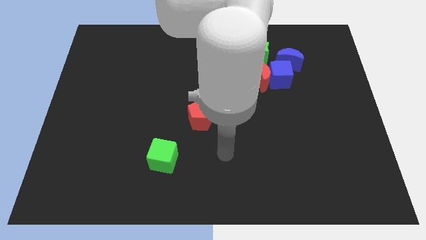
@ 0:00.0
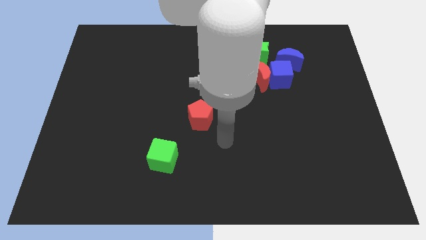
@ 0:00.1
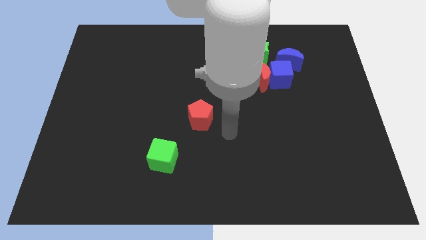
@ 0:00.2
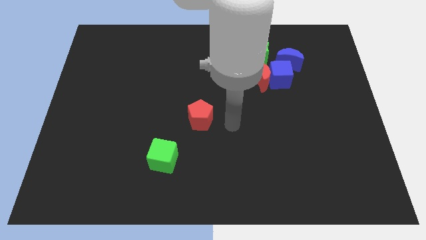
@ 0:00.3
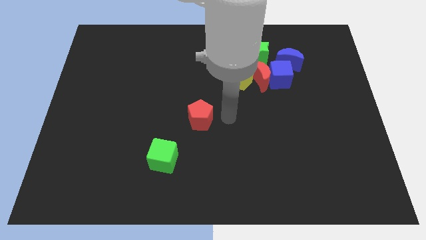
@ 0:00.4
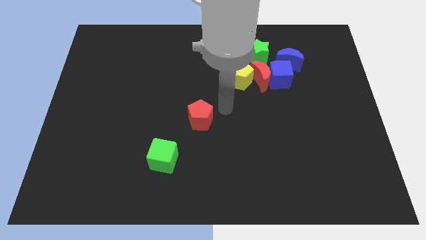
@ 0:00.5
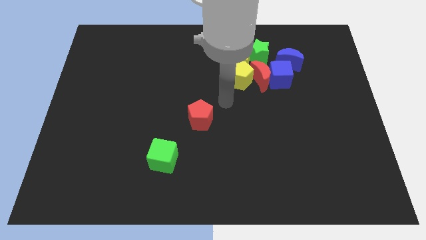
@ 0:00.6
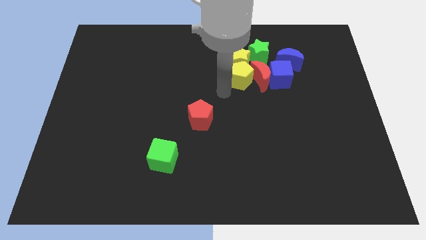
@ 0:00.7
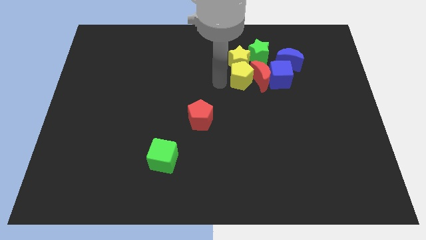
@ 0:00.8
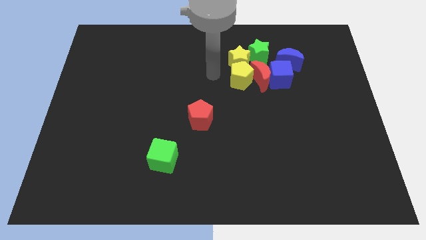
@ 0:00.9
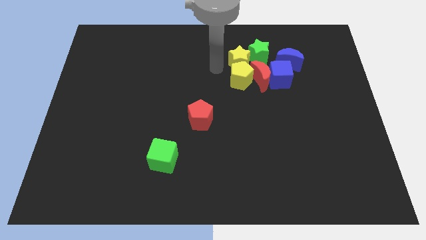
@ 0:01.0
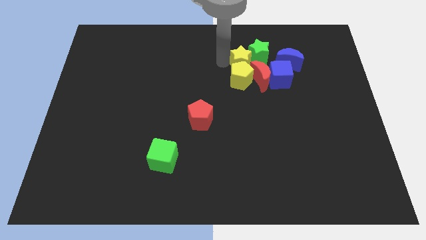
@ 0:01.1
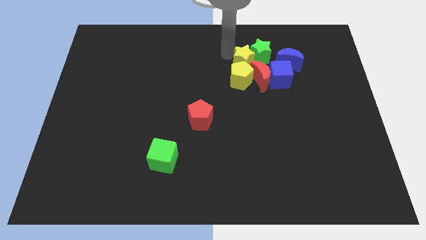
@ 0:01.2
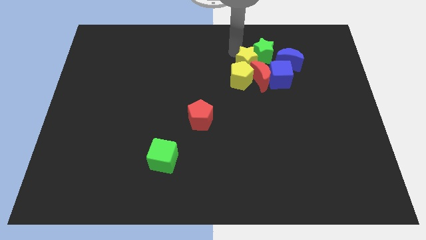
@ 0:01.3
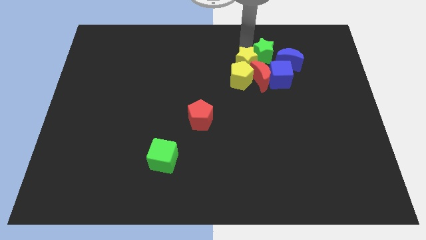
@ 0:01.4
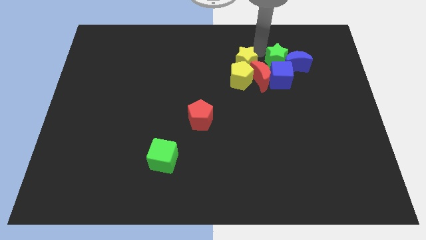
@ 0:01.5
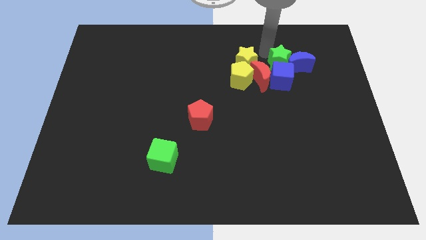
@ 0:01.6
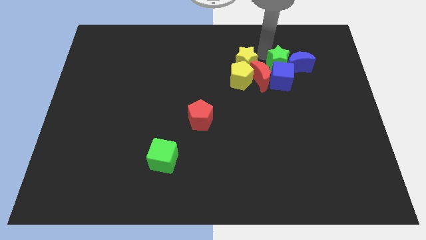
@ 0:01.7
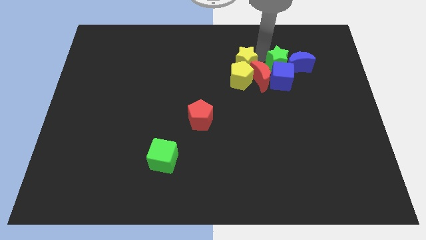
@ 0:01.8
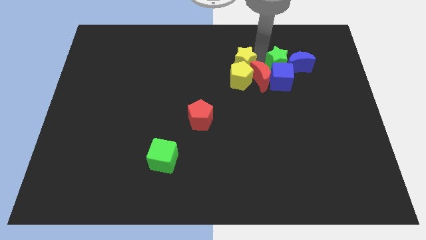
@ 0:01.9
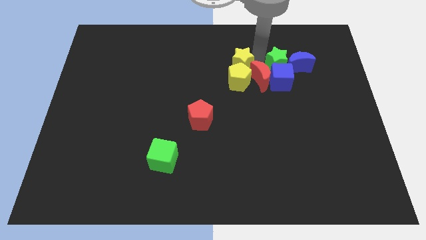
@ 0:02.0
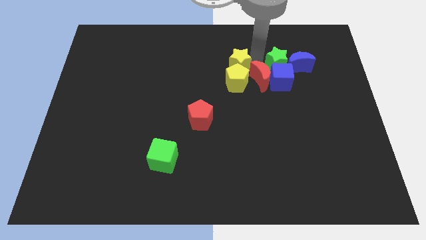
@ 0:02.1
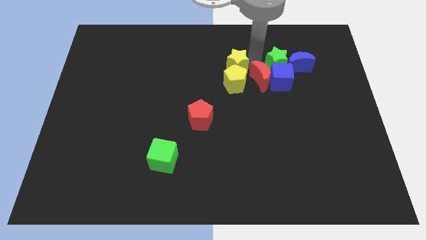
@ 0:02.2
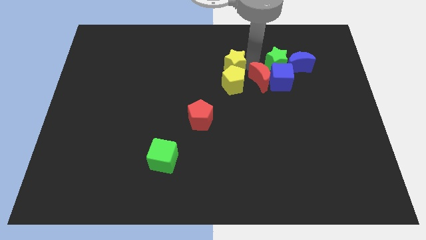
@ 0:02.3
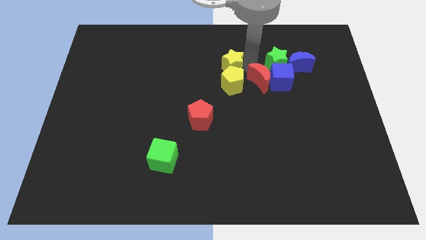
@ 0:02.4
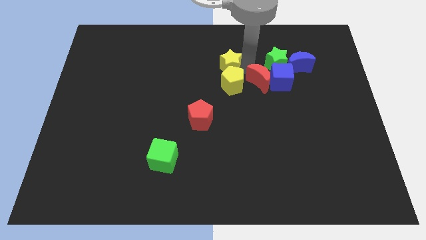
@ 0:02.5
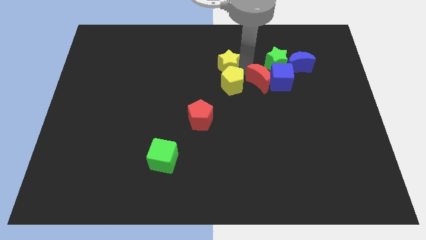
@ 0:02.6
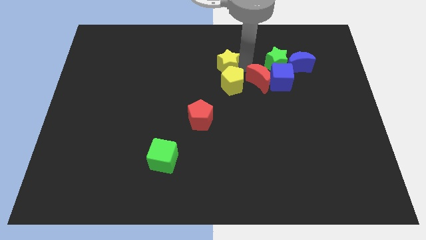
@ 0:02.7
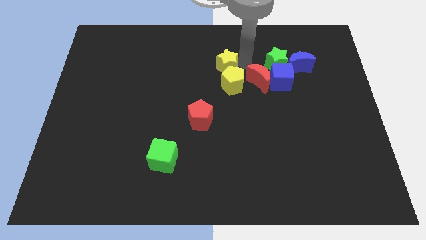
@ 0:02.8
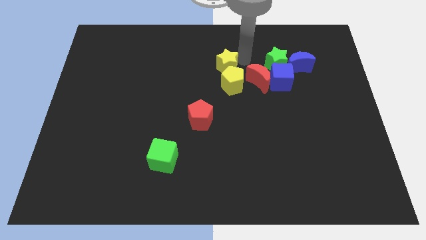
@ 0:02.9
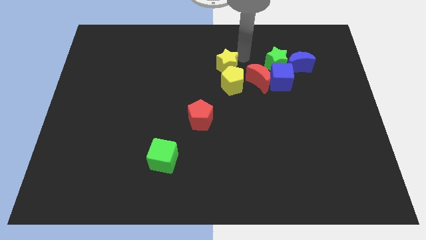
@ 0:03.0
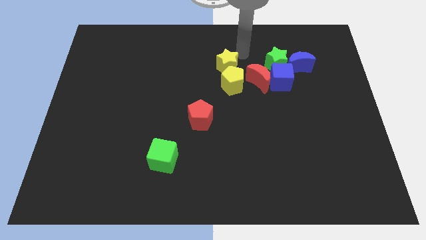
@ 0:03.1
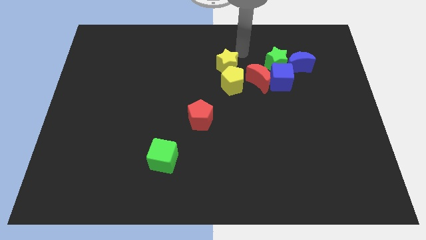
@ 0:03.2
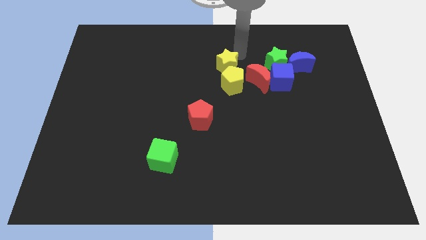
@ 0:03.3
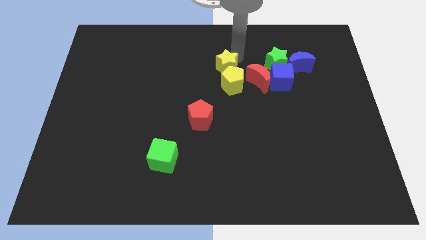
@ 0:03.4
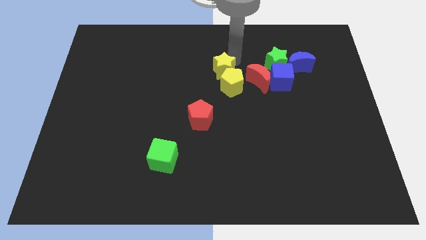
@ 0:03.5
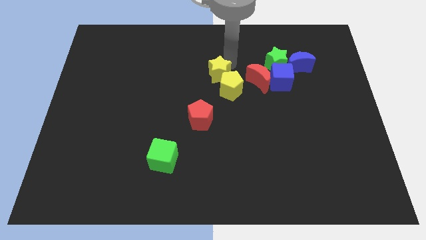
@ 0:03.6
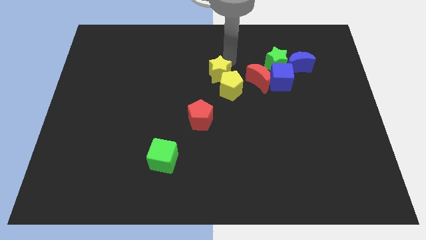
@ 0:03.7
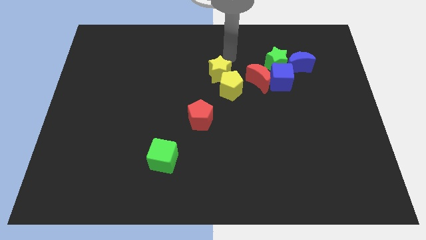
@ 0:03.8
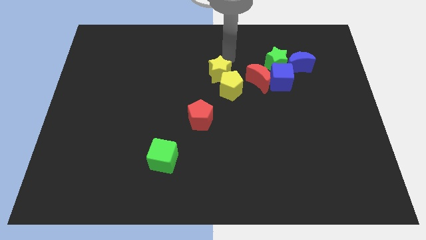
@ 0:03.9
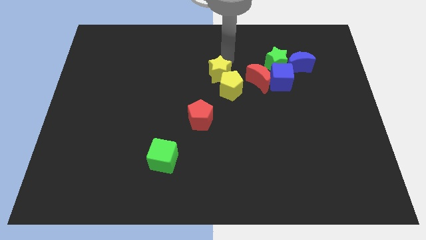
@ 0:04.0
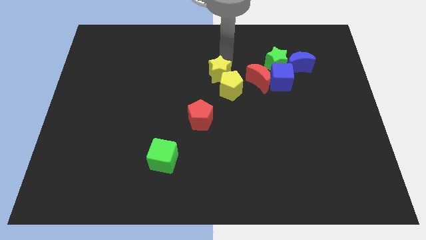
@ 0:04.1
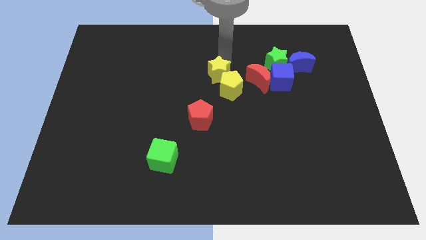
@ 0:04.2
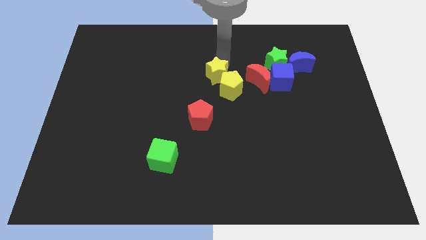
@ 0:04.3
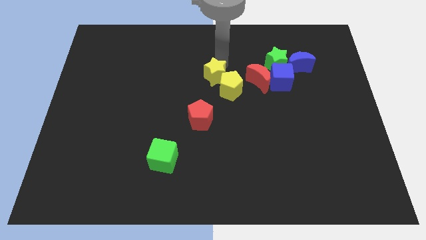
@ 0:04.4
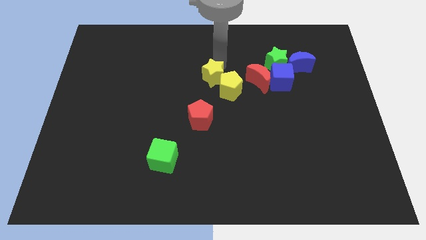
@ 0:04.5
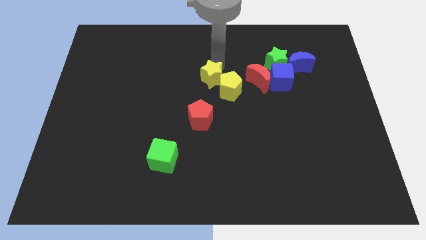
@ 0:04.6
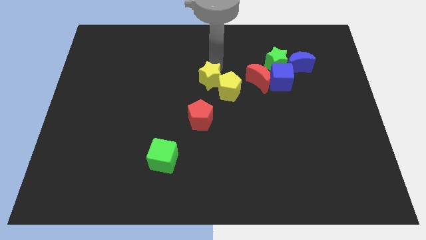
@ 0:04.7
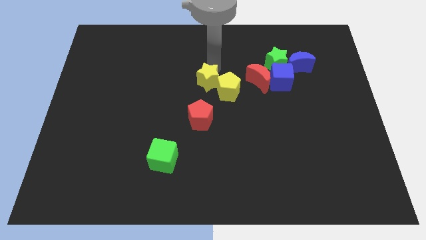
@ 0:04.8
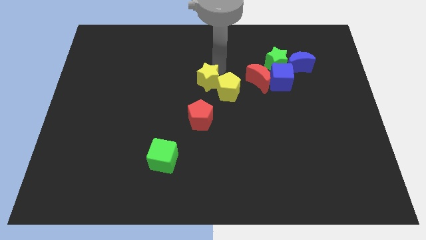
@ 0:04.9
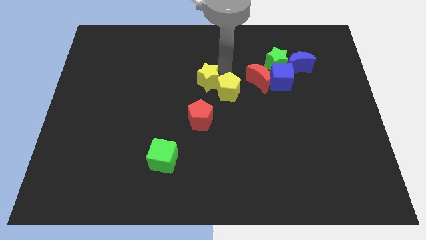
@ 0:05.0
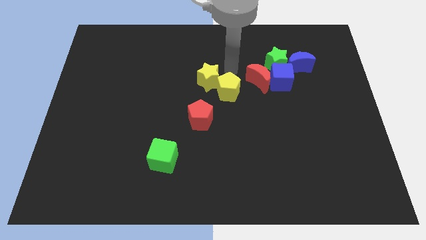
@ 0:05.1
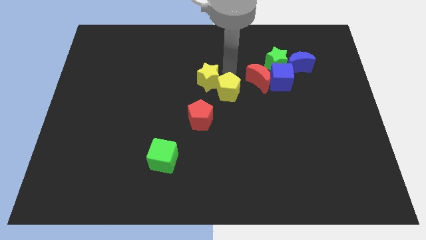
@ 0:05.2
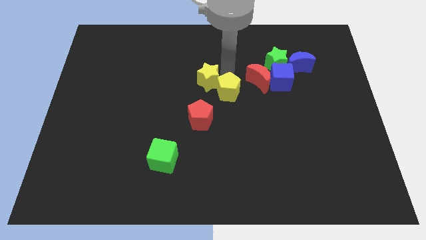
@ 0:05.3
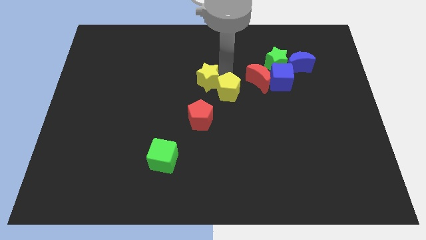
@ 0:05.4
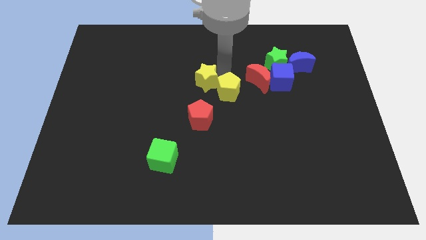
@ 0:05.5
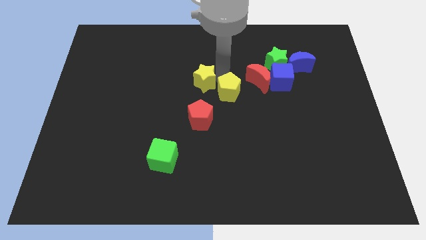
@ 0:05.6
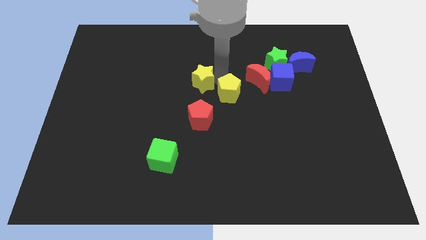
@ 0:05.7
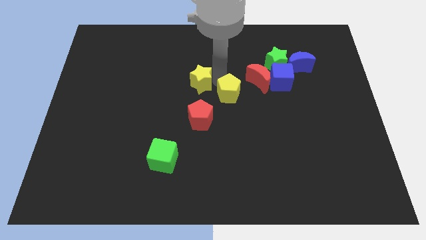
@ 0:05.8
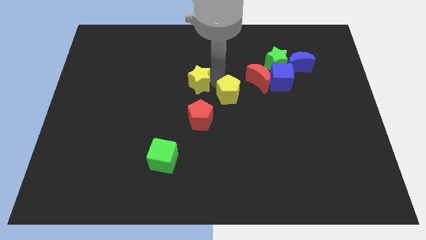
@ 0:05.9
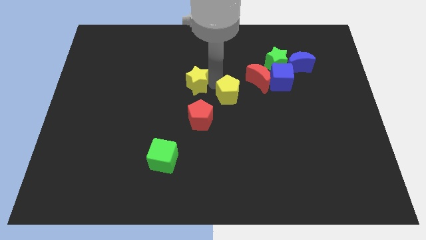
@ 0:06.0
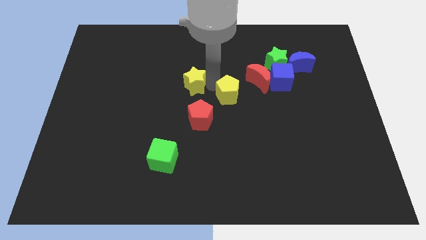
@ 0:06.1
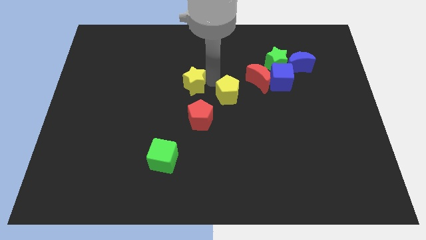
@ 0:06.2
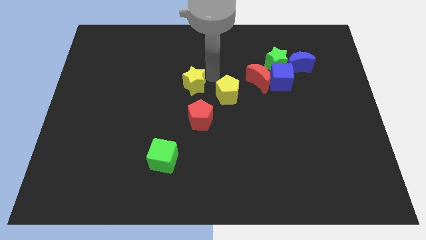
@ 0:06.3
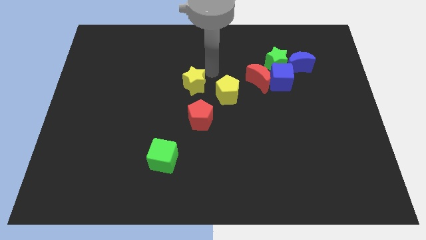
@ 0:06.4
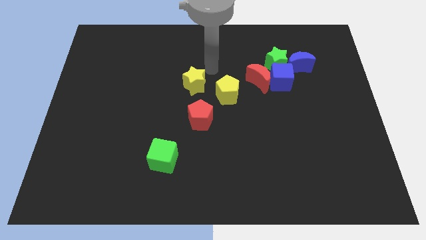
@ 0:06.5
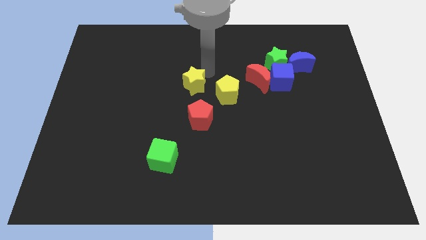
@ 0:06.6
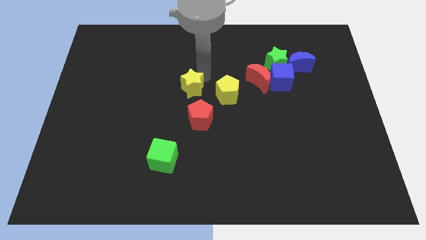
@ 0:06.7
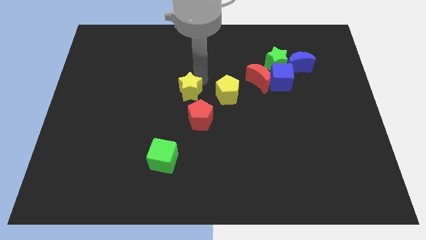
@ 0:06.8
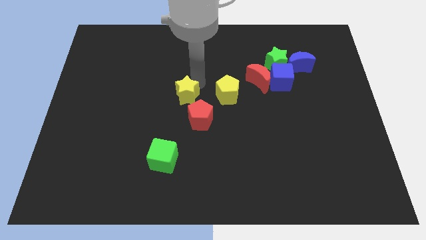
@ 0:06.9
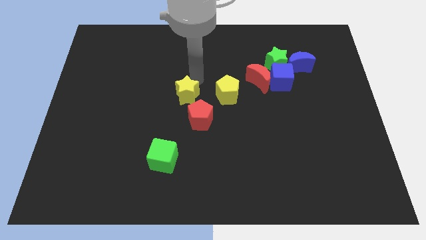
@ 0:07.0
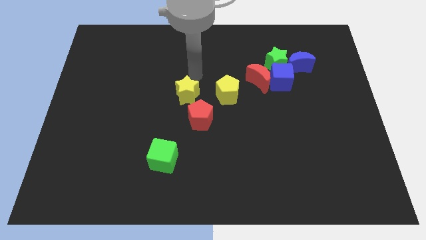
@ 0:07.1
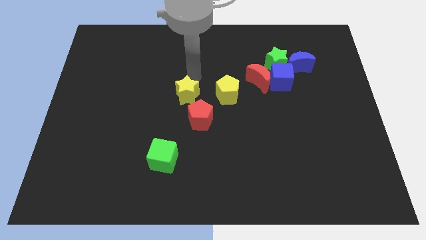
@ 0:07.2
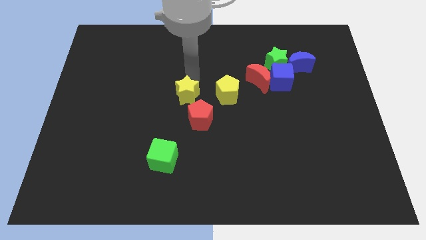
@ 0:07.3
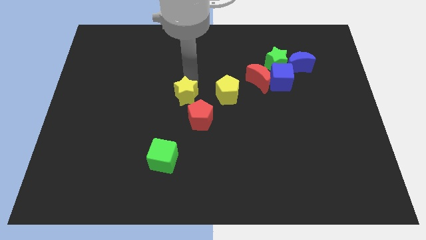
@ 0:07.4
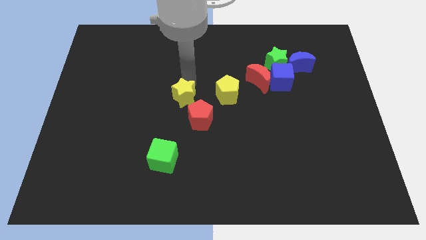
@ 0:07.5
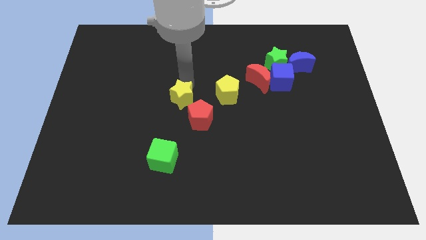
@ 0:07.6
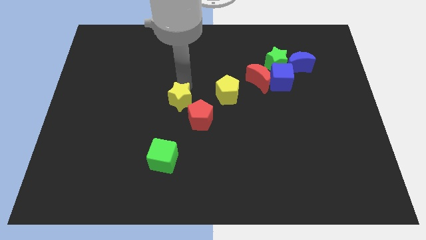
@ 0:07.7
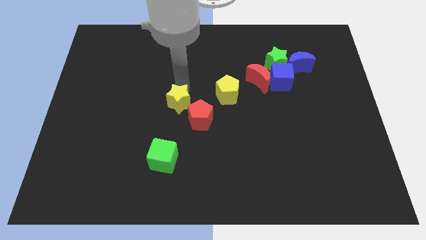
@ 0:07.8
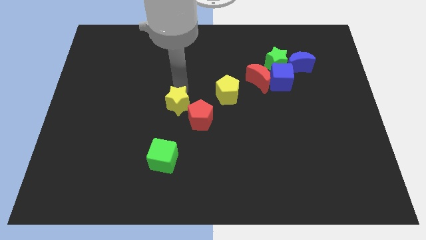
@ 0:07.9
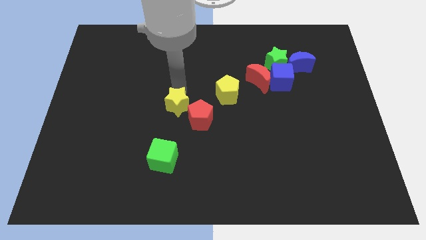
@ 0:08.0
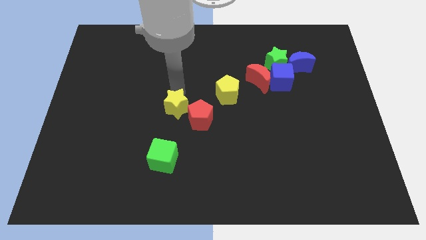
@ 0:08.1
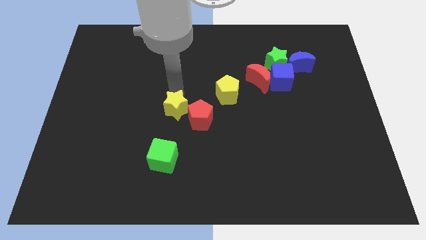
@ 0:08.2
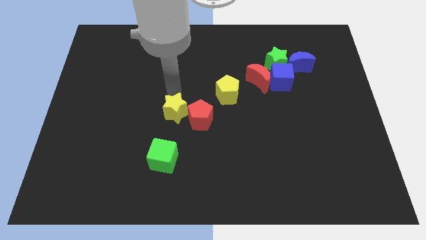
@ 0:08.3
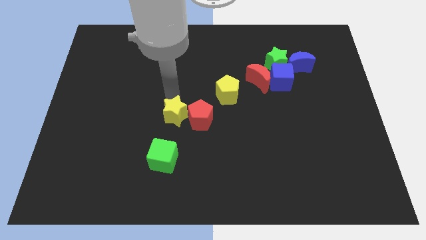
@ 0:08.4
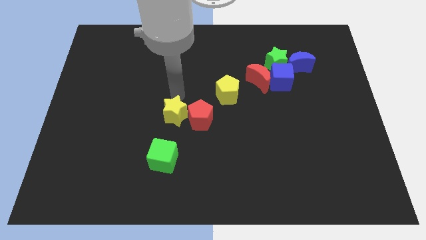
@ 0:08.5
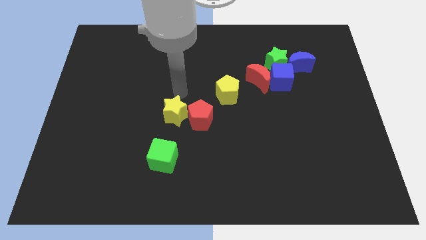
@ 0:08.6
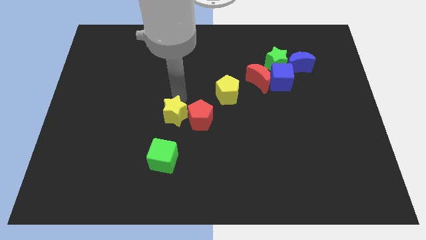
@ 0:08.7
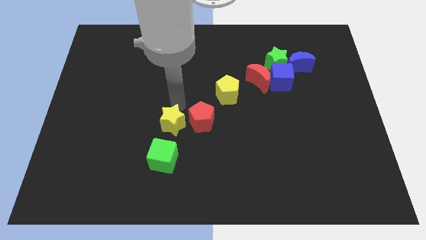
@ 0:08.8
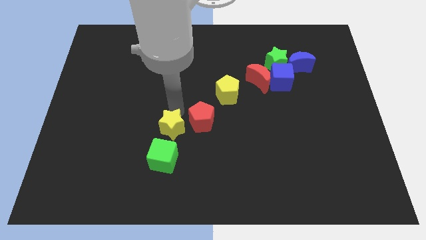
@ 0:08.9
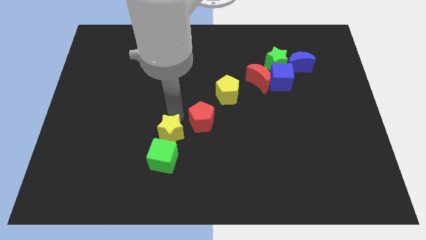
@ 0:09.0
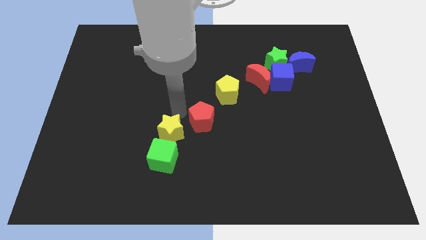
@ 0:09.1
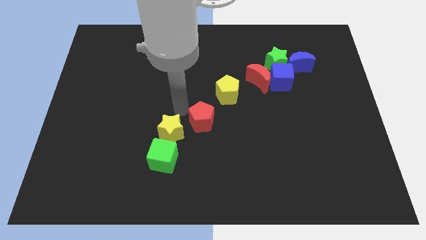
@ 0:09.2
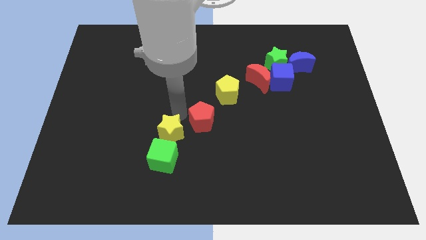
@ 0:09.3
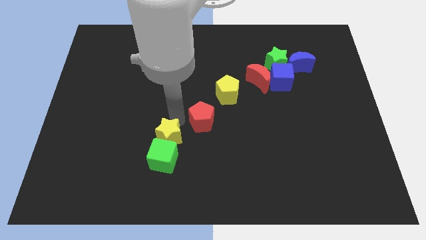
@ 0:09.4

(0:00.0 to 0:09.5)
put the yellow star to the green cube
